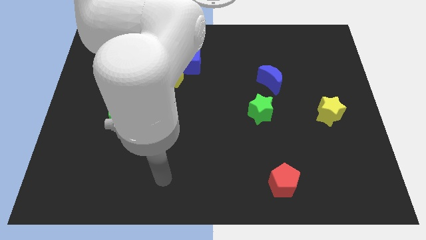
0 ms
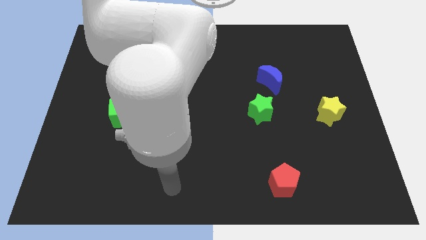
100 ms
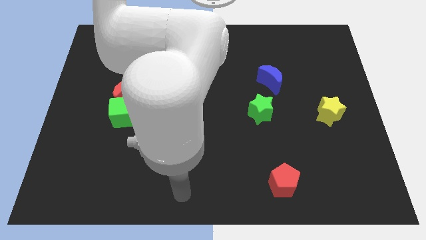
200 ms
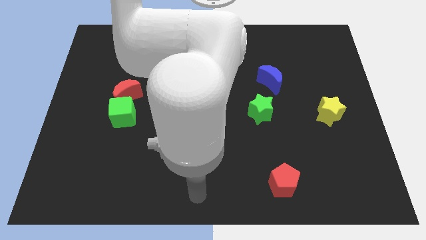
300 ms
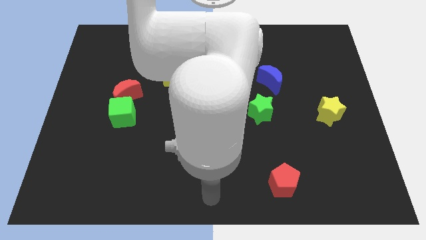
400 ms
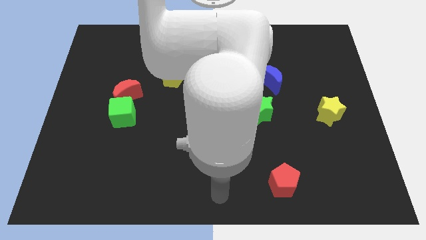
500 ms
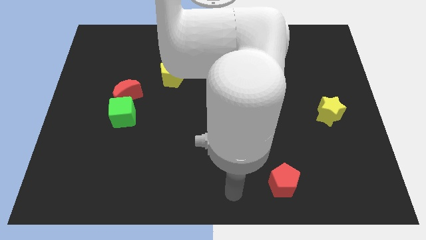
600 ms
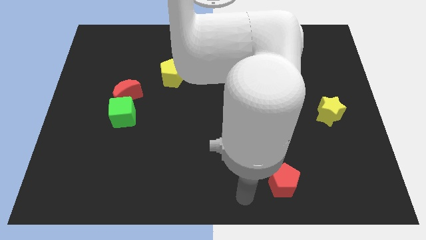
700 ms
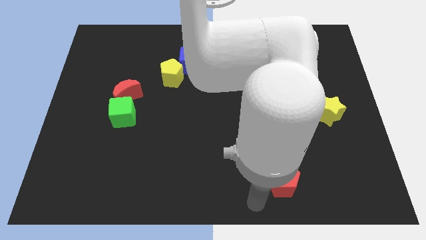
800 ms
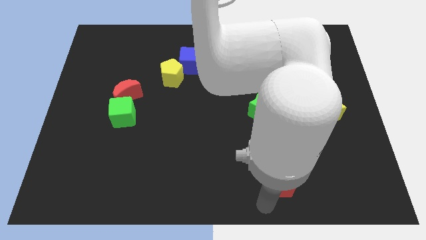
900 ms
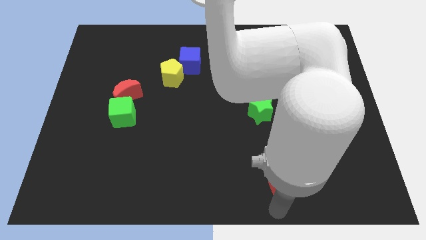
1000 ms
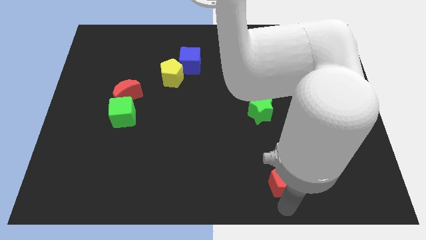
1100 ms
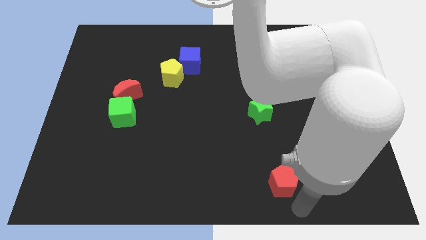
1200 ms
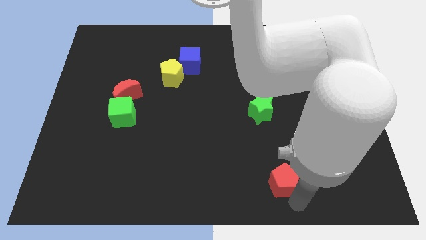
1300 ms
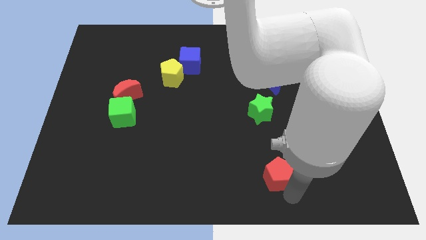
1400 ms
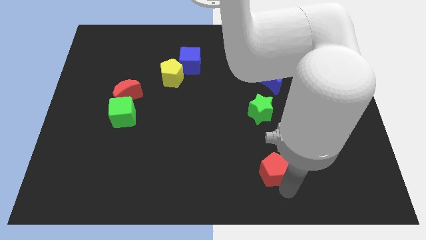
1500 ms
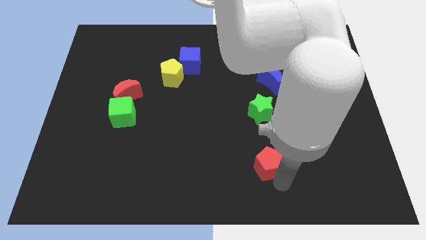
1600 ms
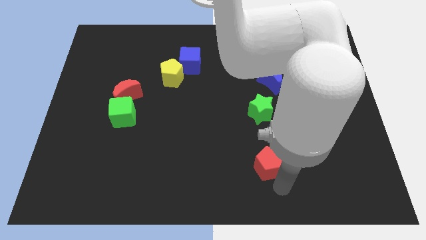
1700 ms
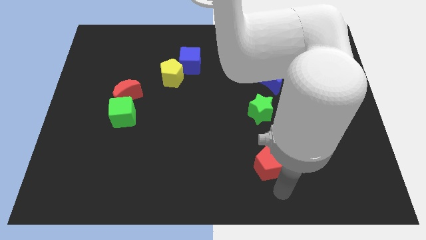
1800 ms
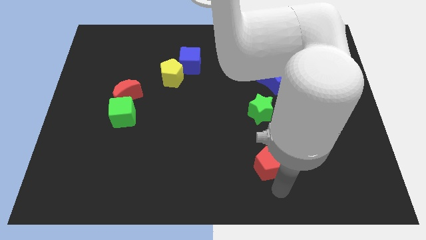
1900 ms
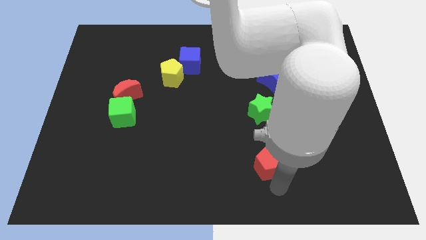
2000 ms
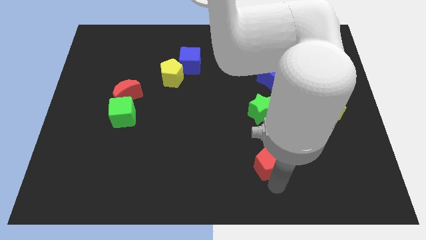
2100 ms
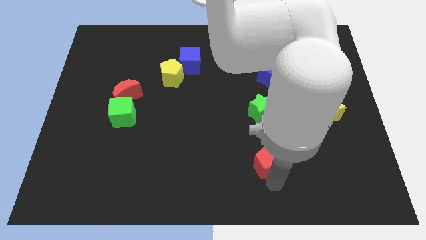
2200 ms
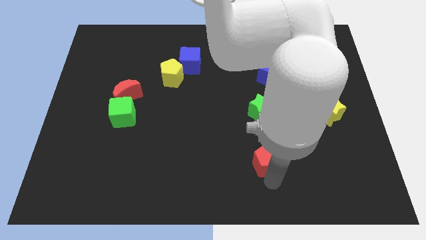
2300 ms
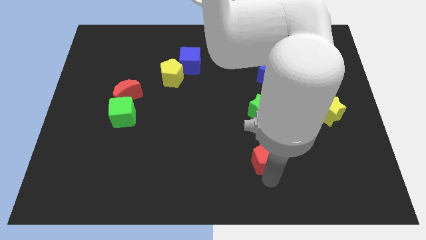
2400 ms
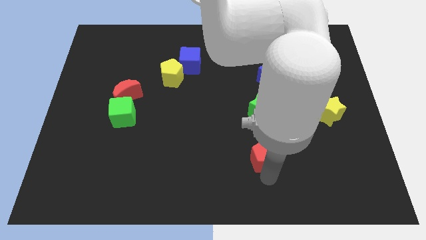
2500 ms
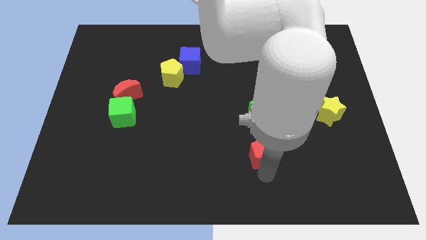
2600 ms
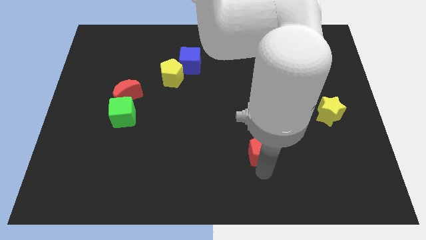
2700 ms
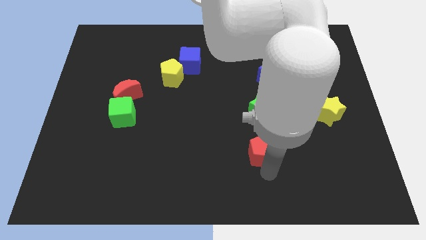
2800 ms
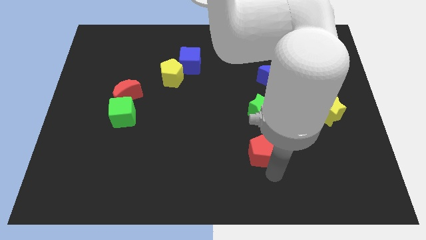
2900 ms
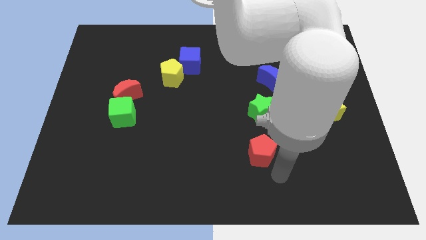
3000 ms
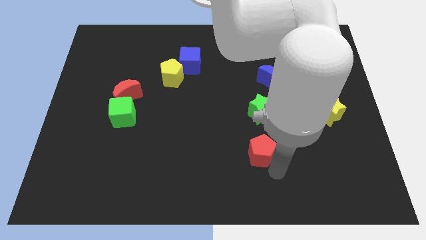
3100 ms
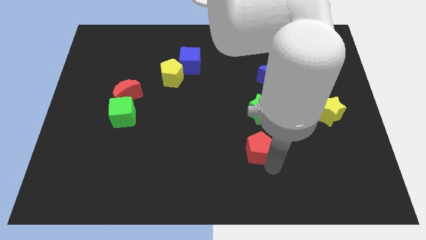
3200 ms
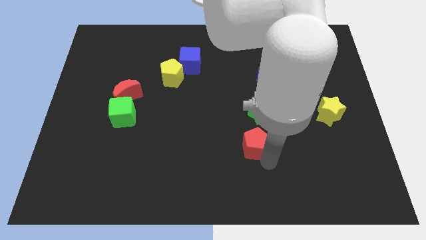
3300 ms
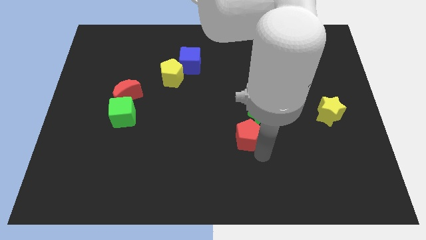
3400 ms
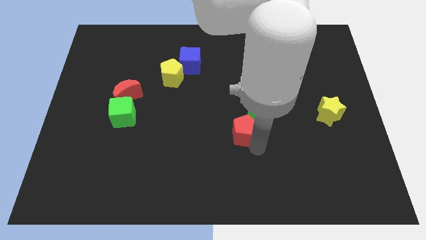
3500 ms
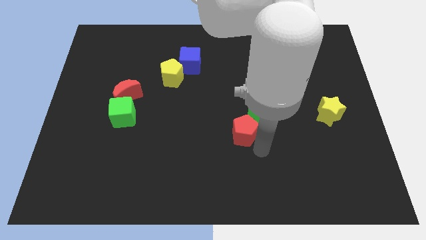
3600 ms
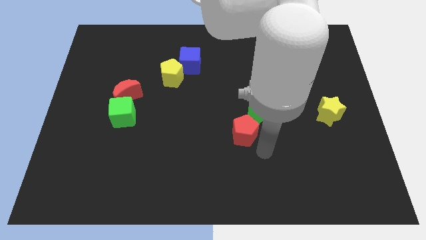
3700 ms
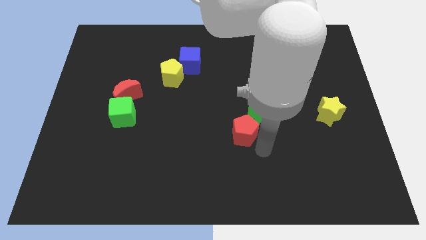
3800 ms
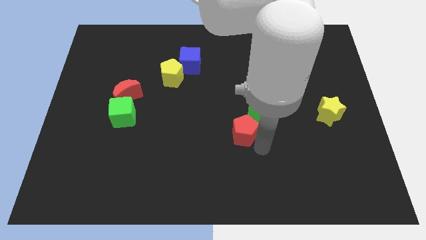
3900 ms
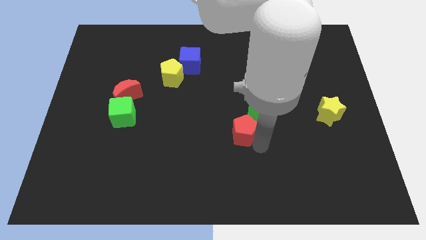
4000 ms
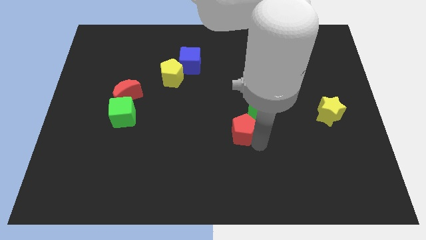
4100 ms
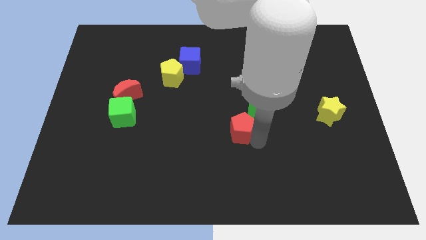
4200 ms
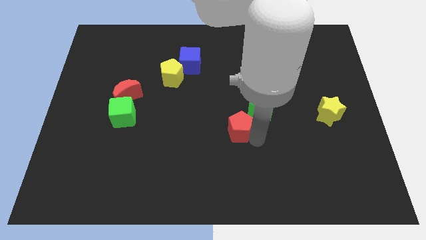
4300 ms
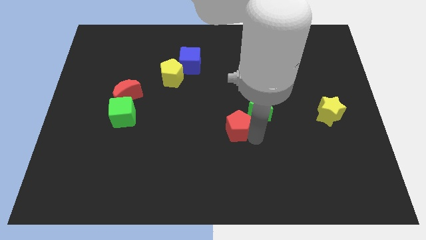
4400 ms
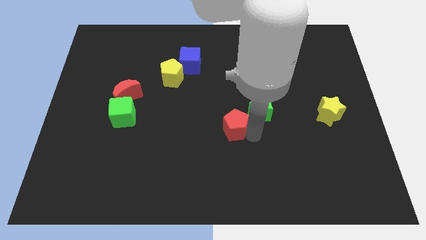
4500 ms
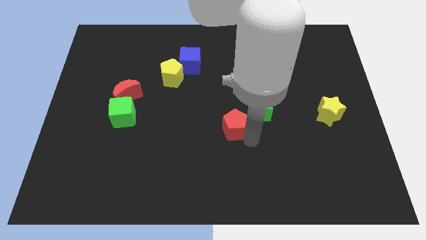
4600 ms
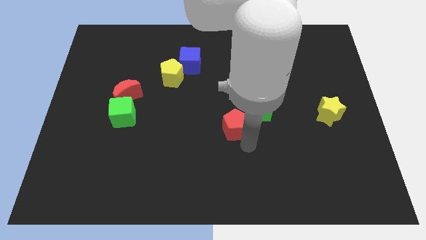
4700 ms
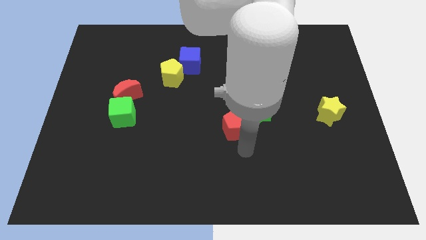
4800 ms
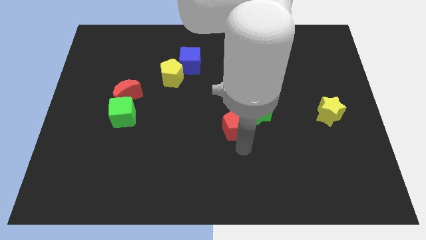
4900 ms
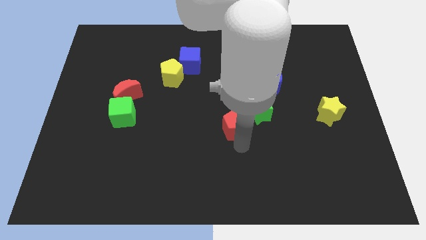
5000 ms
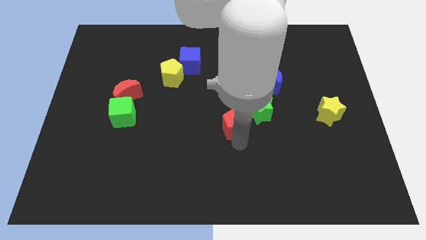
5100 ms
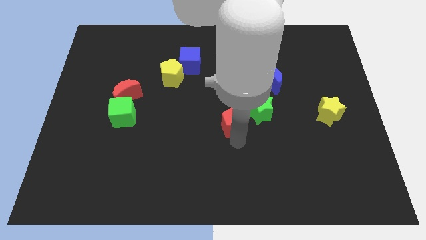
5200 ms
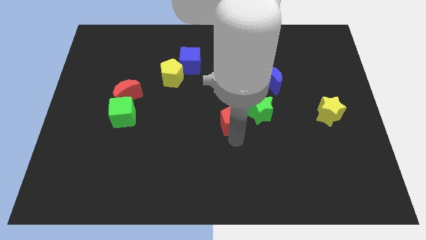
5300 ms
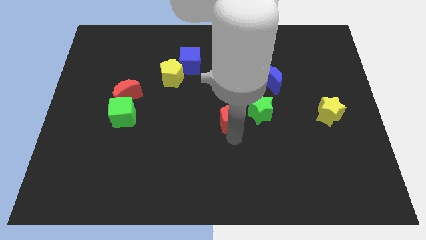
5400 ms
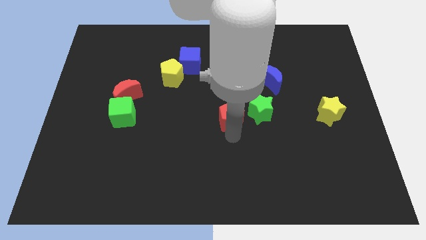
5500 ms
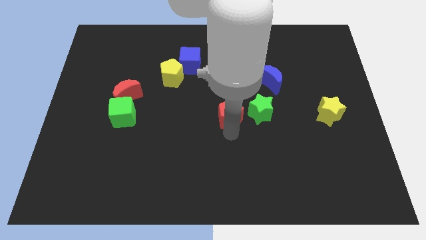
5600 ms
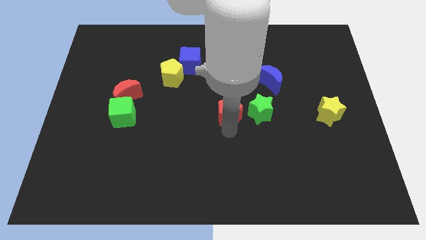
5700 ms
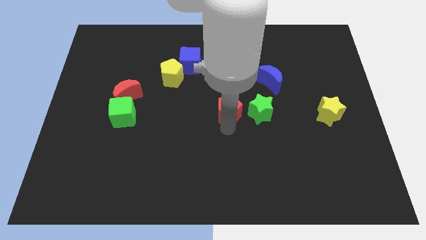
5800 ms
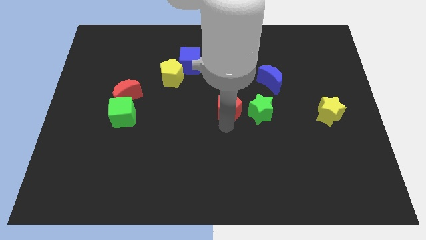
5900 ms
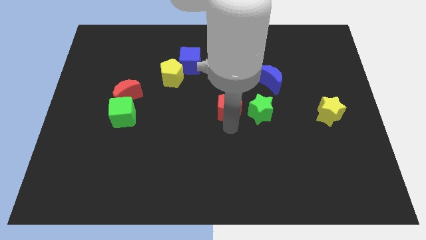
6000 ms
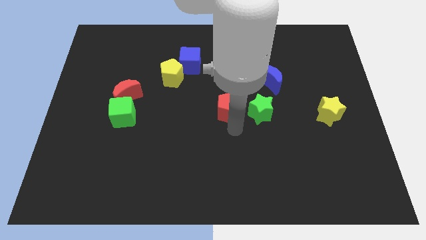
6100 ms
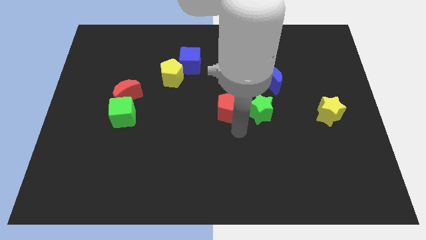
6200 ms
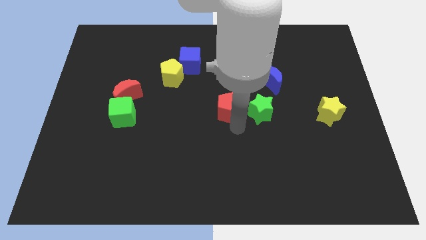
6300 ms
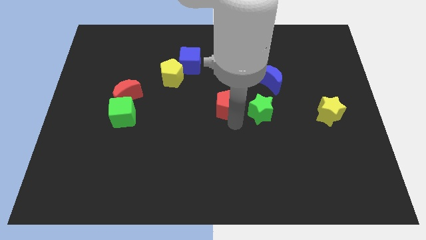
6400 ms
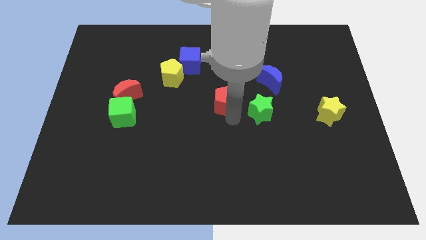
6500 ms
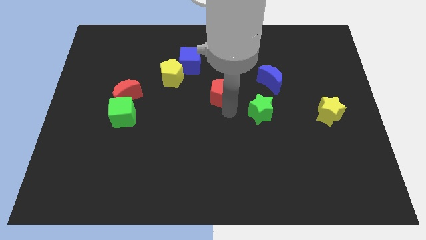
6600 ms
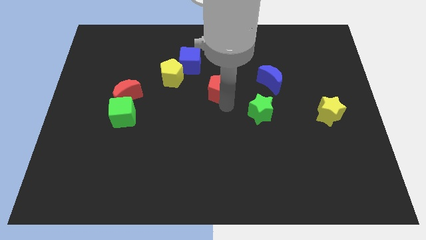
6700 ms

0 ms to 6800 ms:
push the red pentagon to the right side of the yellow pentagon

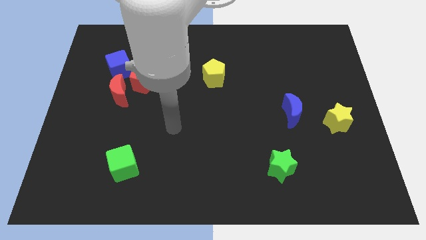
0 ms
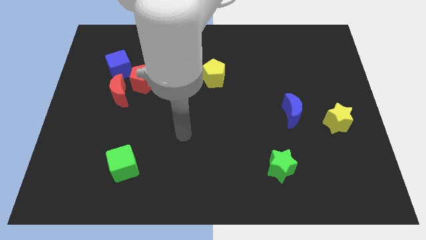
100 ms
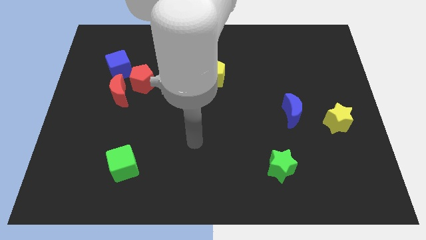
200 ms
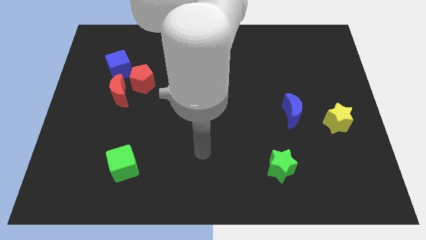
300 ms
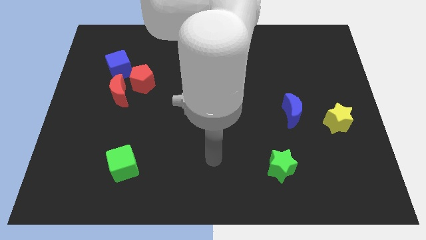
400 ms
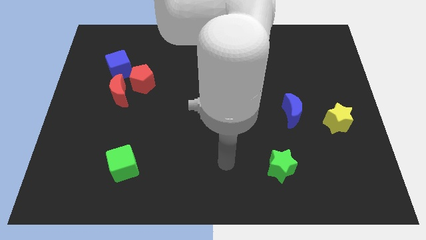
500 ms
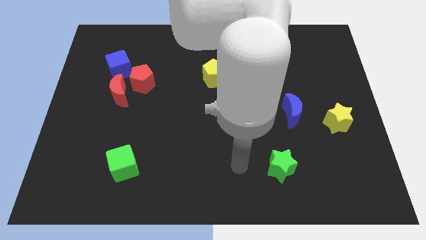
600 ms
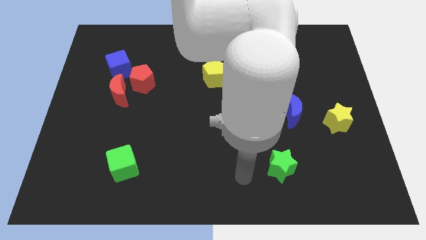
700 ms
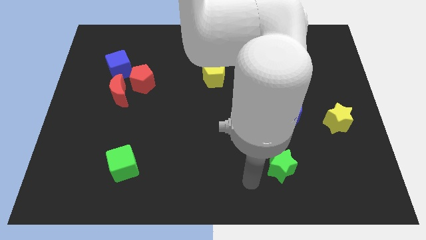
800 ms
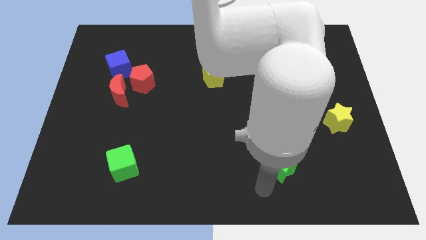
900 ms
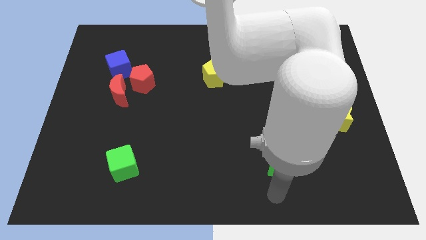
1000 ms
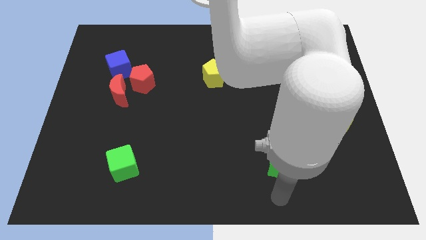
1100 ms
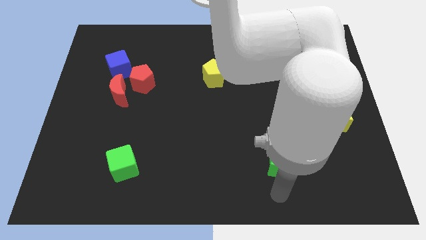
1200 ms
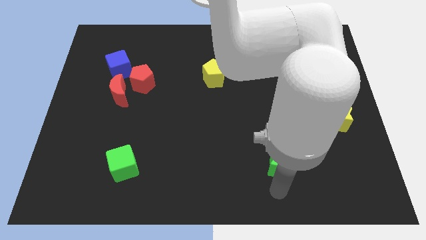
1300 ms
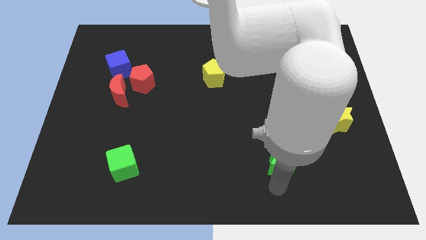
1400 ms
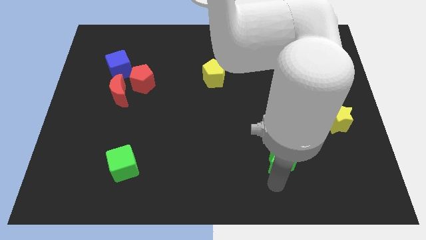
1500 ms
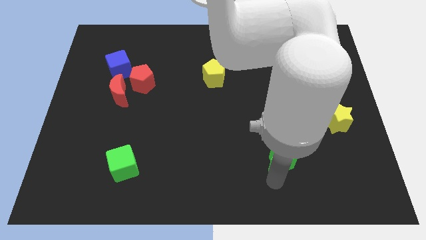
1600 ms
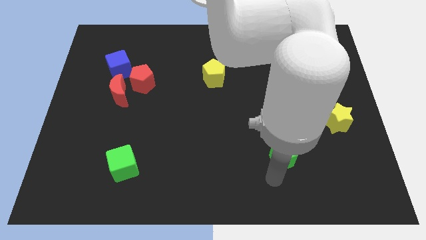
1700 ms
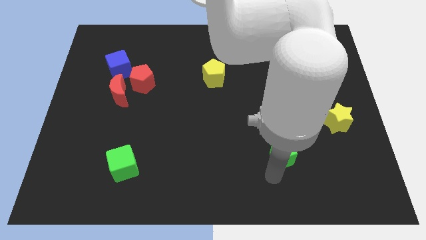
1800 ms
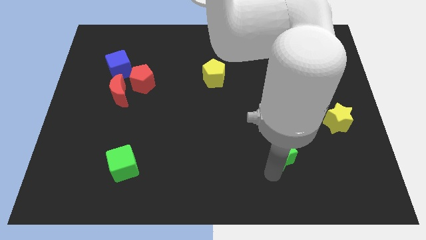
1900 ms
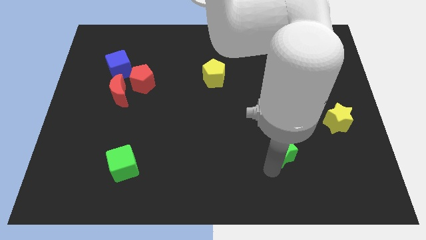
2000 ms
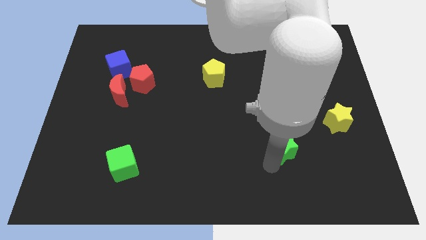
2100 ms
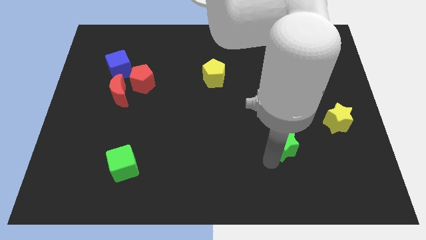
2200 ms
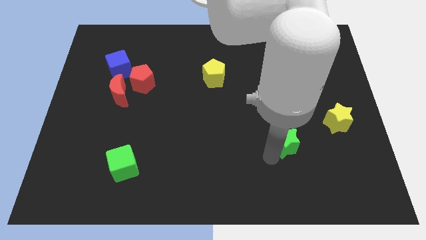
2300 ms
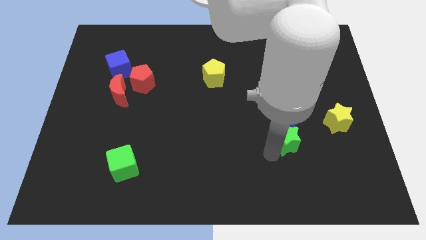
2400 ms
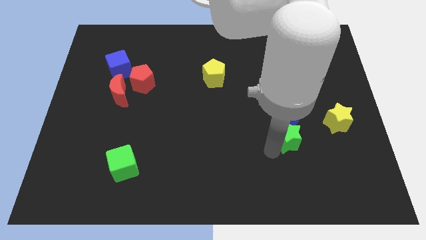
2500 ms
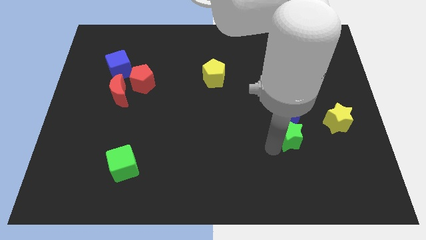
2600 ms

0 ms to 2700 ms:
move the green star just left of the yellow star
